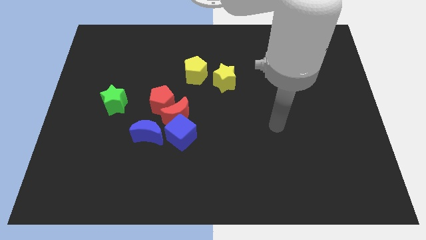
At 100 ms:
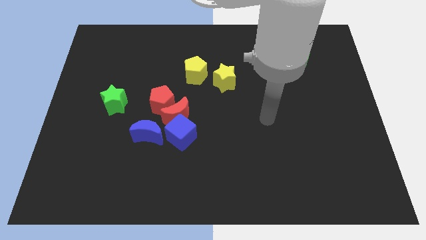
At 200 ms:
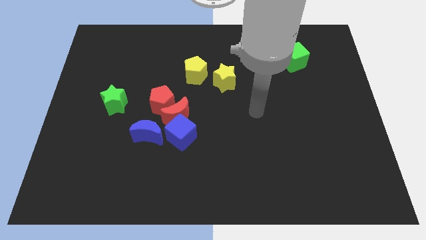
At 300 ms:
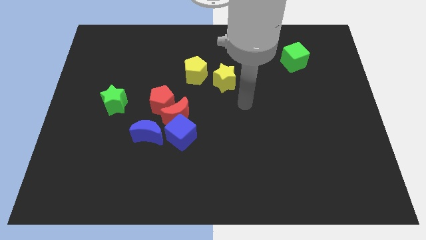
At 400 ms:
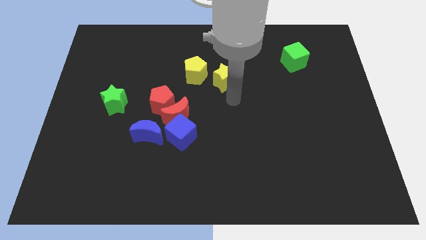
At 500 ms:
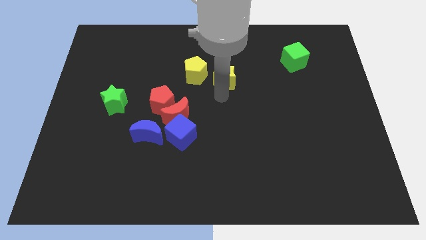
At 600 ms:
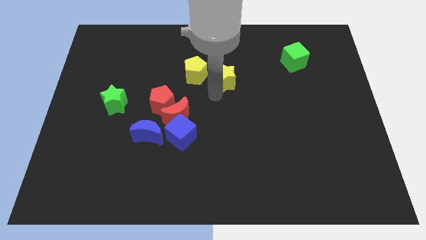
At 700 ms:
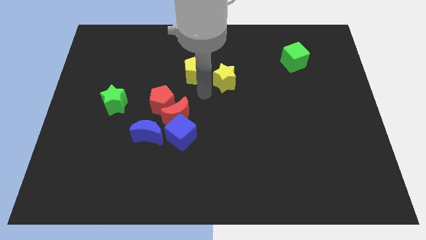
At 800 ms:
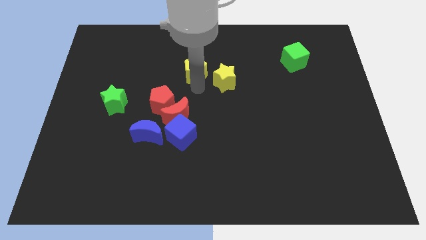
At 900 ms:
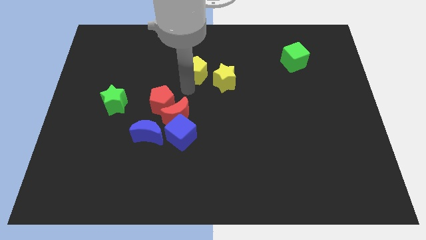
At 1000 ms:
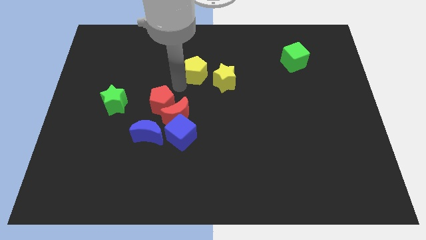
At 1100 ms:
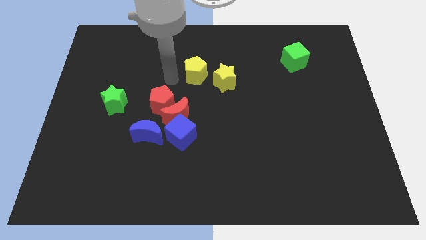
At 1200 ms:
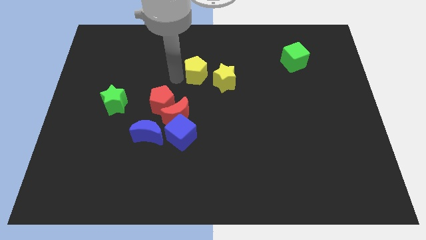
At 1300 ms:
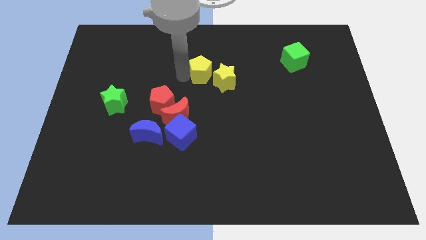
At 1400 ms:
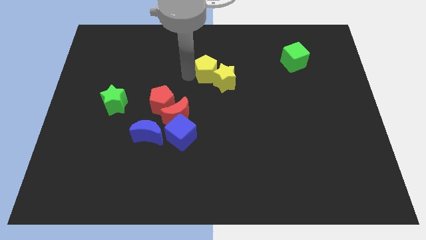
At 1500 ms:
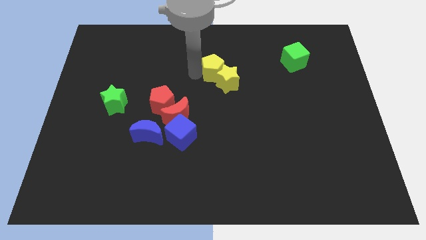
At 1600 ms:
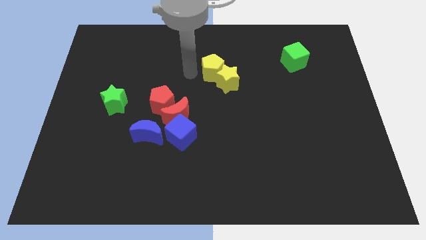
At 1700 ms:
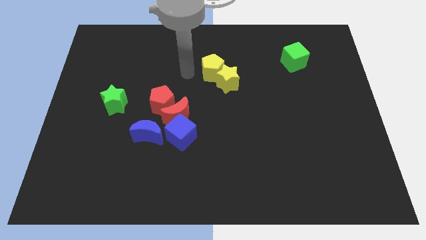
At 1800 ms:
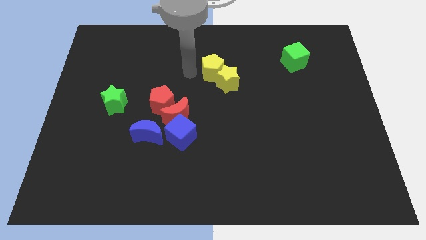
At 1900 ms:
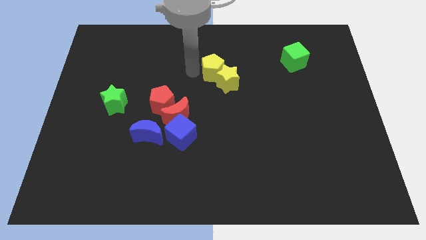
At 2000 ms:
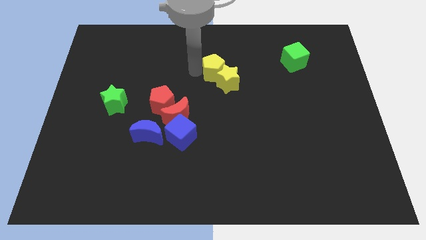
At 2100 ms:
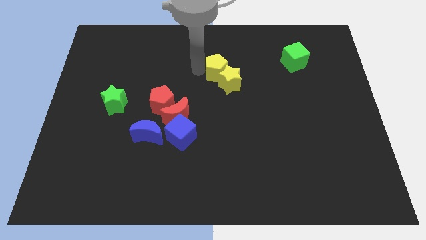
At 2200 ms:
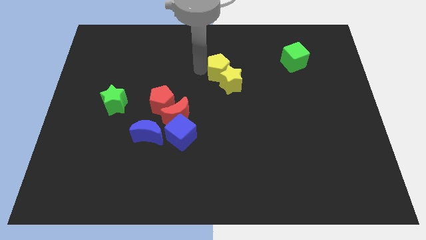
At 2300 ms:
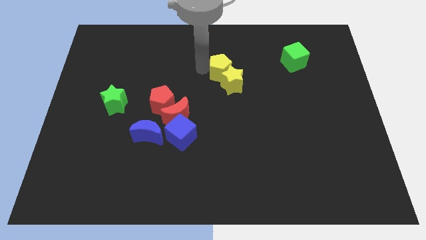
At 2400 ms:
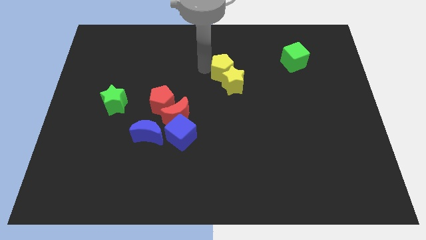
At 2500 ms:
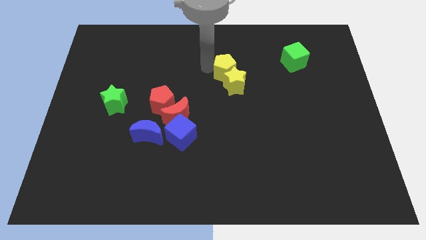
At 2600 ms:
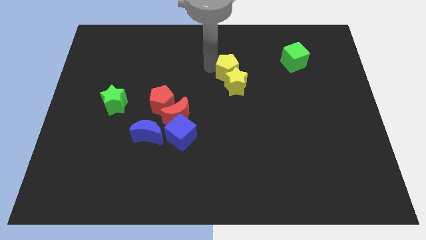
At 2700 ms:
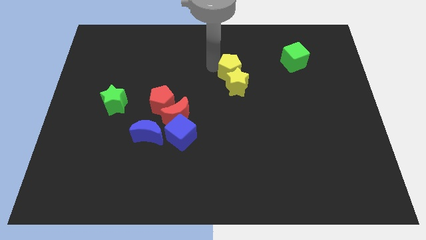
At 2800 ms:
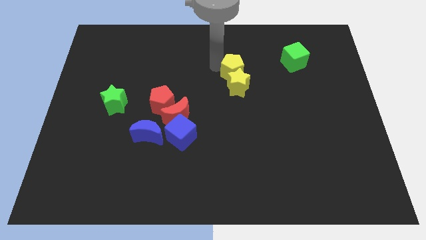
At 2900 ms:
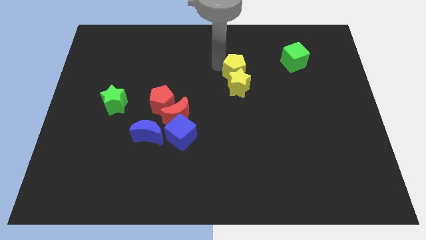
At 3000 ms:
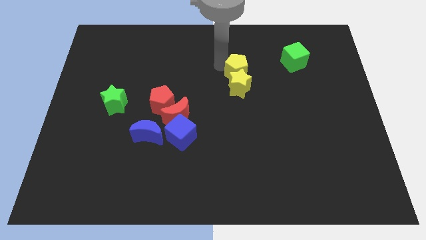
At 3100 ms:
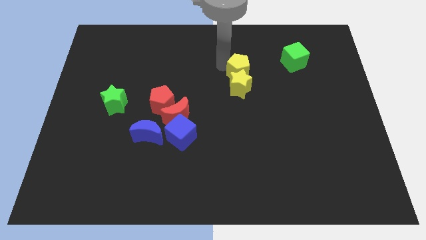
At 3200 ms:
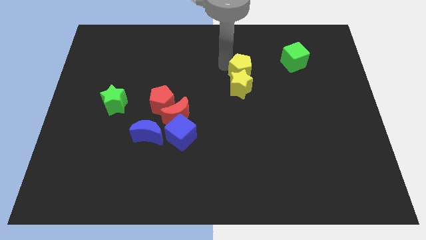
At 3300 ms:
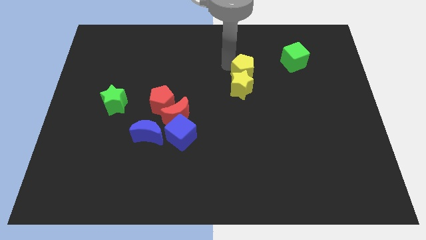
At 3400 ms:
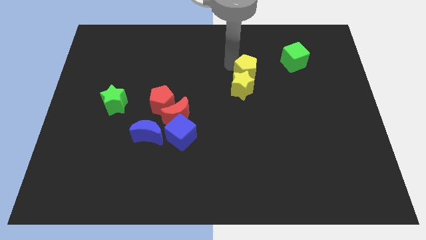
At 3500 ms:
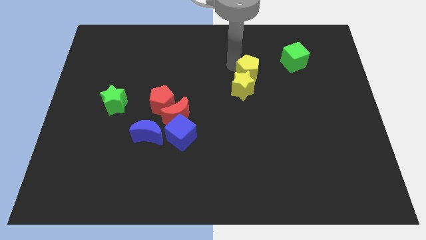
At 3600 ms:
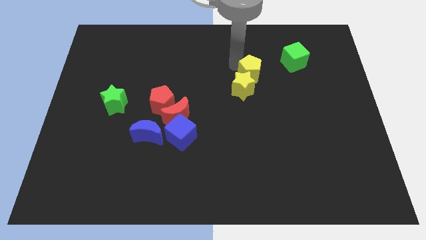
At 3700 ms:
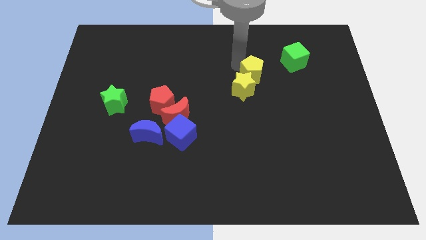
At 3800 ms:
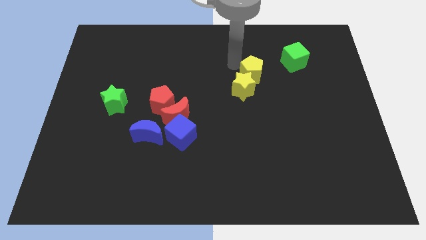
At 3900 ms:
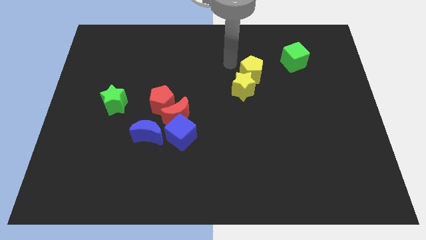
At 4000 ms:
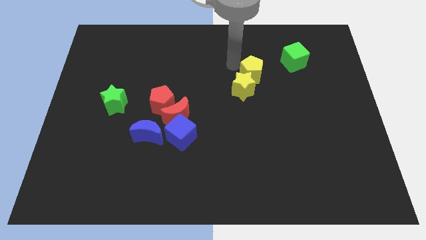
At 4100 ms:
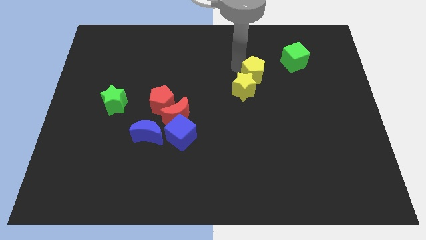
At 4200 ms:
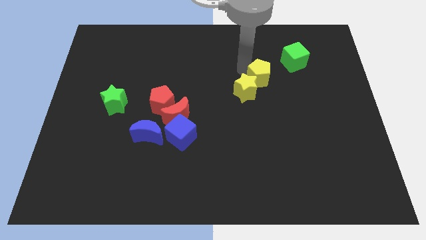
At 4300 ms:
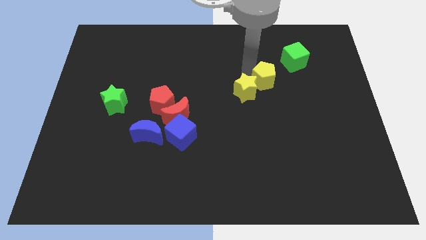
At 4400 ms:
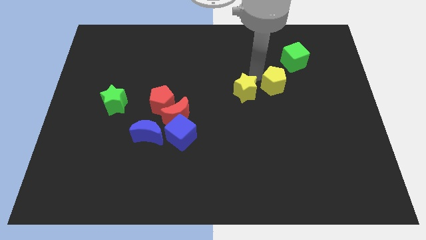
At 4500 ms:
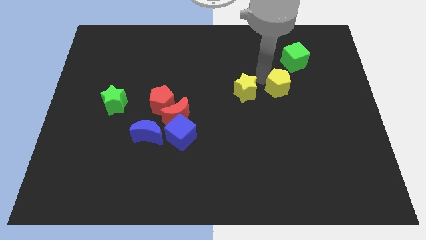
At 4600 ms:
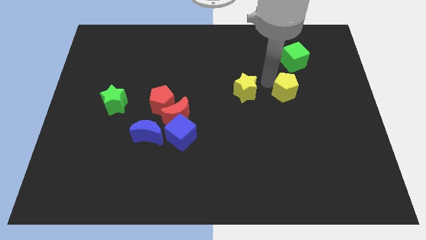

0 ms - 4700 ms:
move the yellow pentagon below the green cube

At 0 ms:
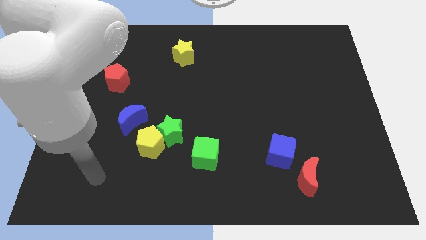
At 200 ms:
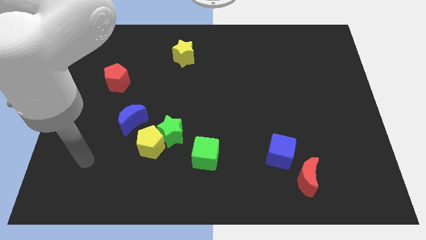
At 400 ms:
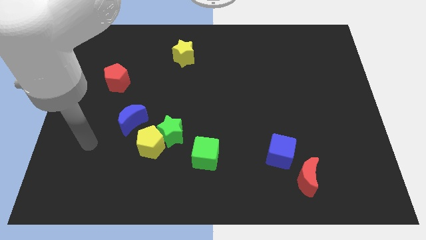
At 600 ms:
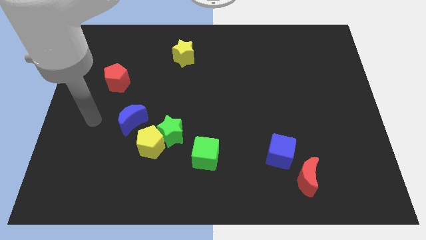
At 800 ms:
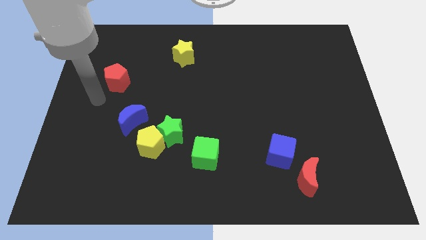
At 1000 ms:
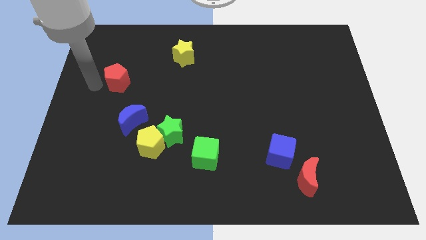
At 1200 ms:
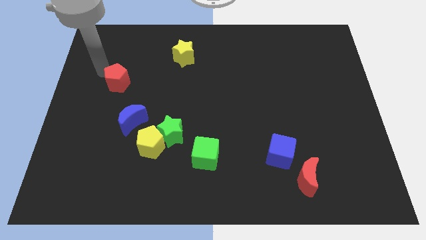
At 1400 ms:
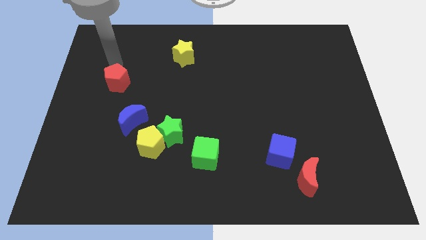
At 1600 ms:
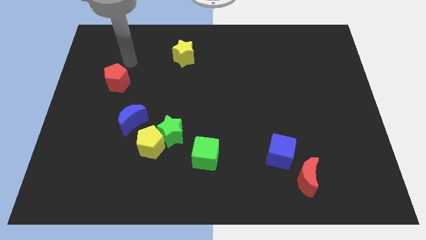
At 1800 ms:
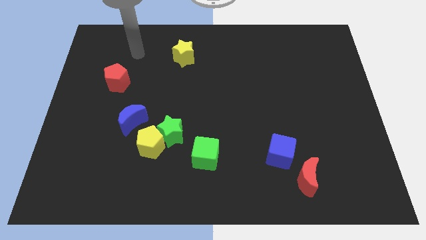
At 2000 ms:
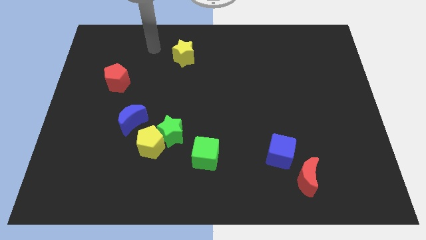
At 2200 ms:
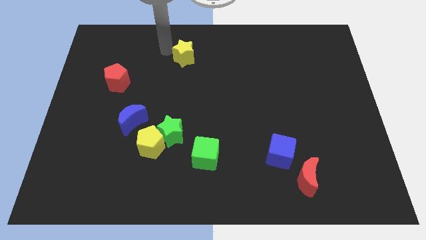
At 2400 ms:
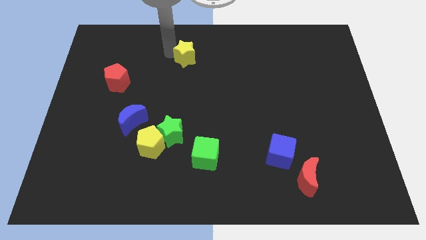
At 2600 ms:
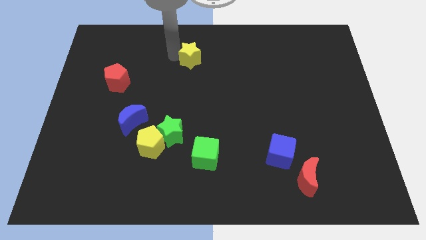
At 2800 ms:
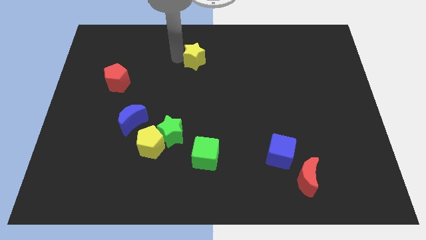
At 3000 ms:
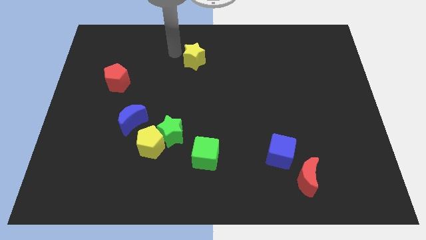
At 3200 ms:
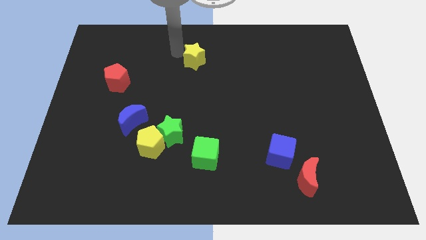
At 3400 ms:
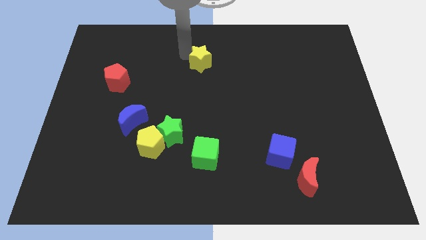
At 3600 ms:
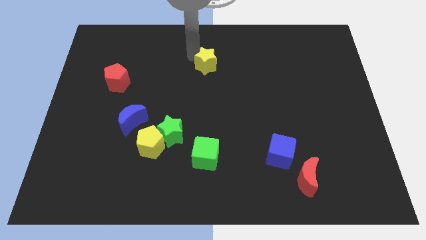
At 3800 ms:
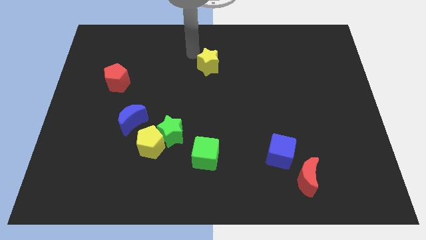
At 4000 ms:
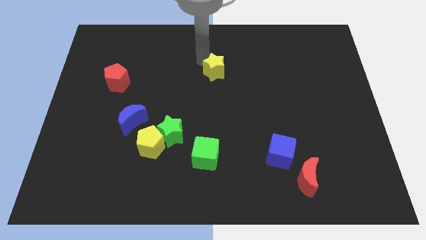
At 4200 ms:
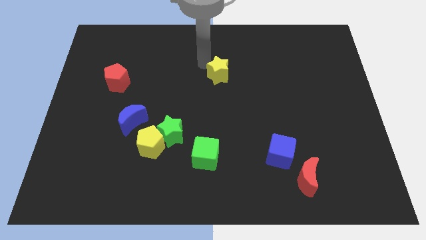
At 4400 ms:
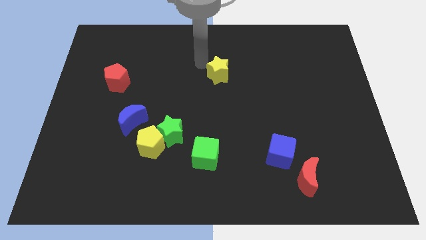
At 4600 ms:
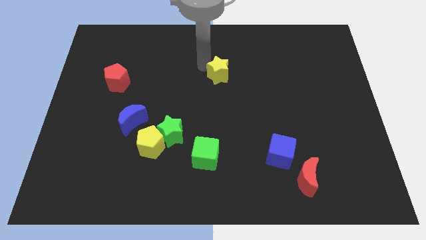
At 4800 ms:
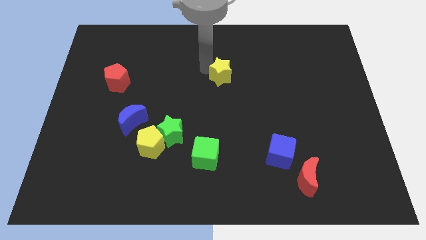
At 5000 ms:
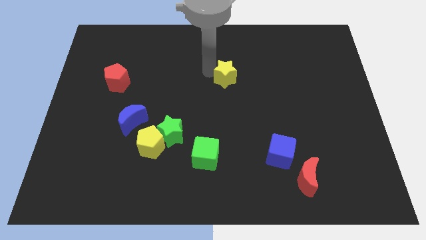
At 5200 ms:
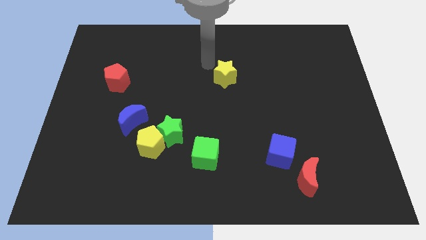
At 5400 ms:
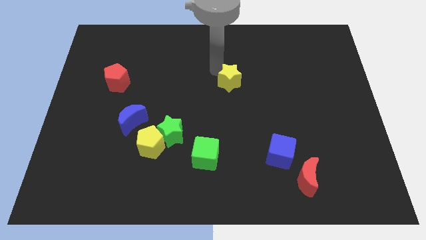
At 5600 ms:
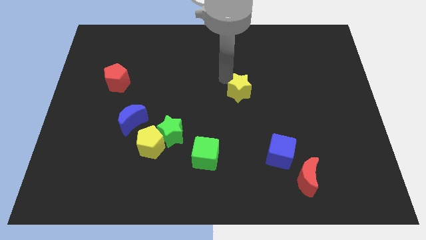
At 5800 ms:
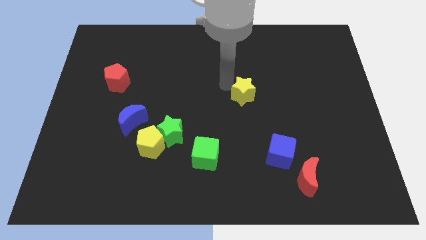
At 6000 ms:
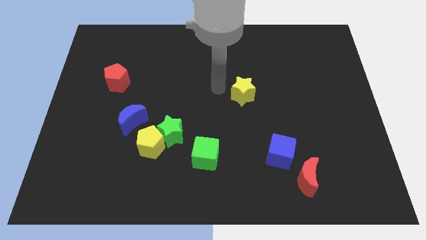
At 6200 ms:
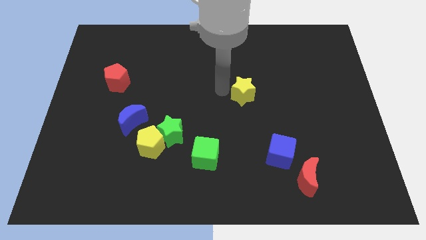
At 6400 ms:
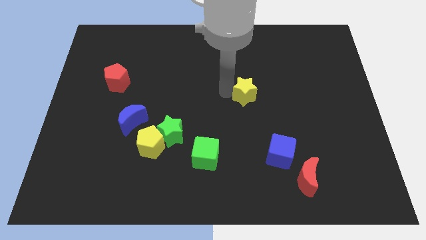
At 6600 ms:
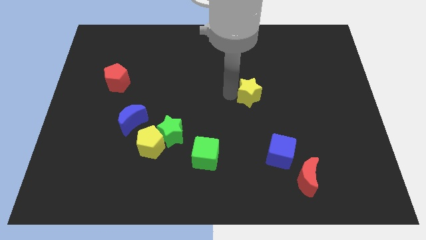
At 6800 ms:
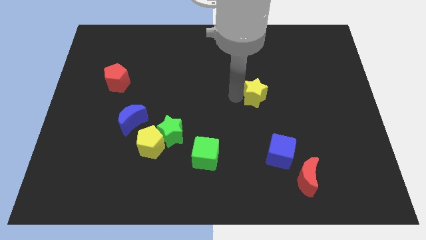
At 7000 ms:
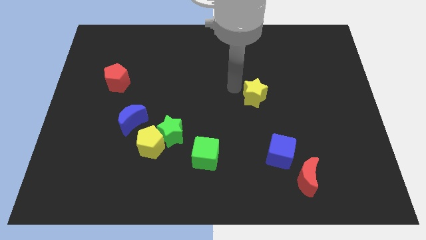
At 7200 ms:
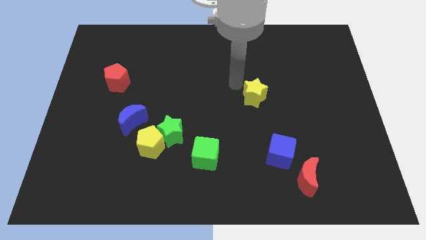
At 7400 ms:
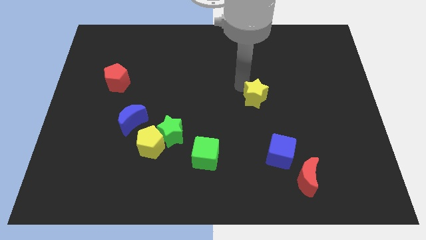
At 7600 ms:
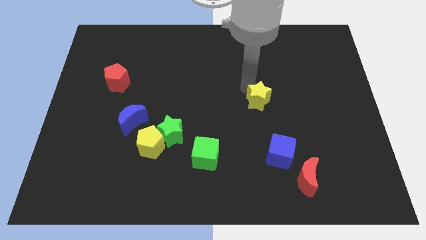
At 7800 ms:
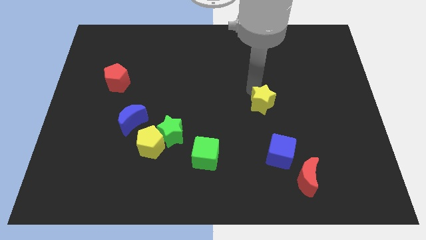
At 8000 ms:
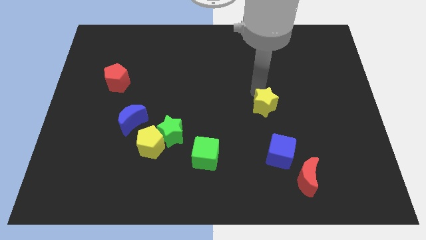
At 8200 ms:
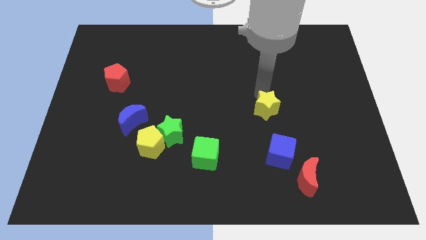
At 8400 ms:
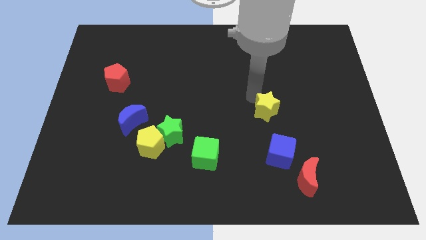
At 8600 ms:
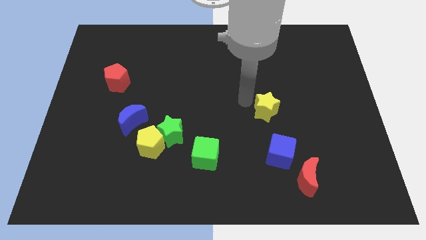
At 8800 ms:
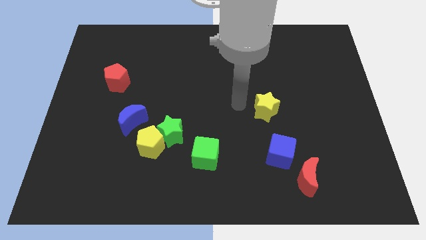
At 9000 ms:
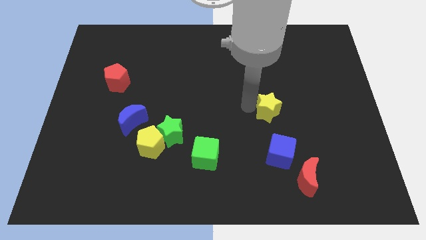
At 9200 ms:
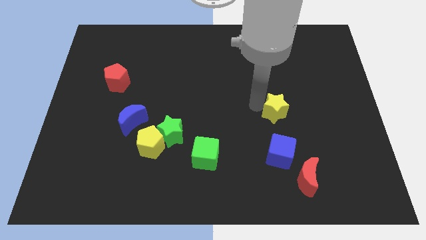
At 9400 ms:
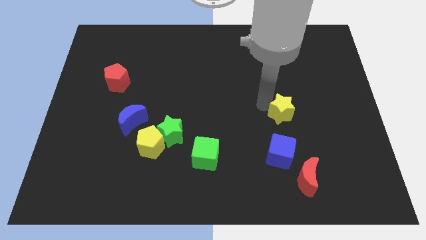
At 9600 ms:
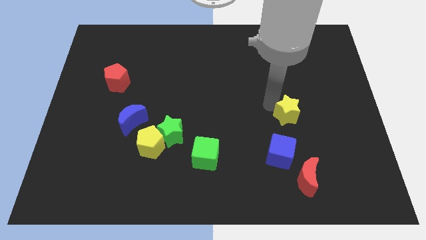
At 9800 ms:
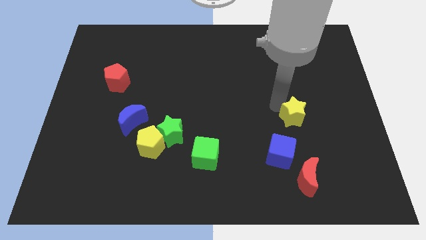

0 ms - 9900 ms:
push the yellow star diagonally up and to the right of the blue cube
